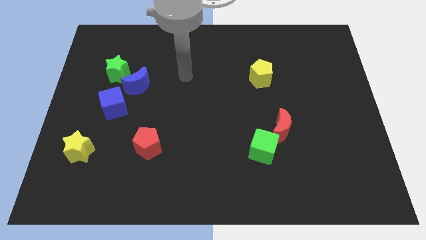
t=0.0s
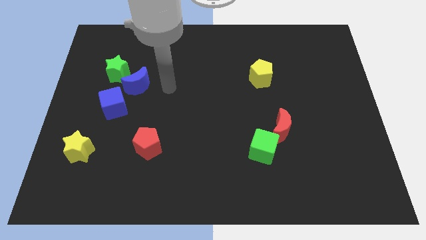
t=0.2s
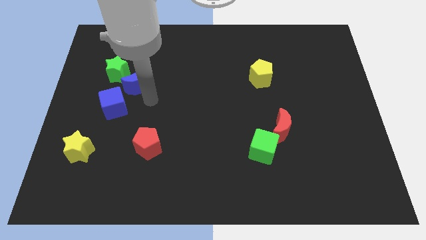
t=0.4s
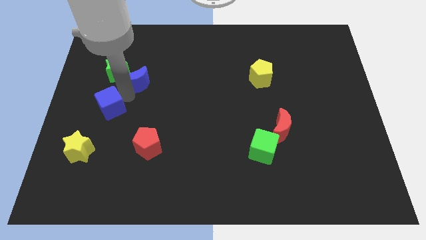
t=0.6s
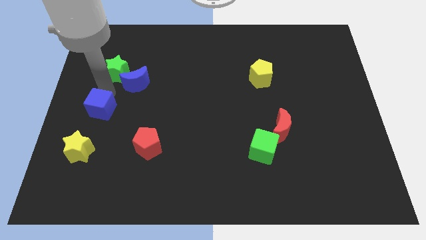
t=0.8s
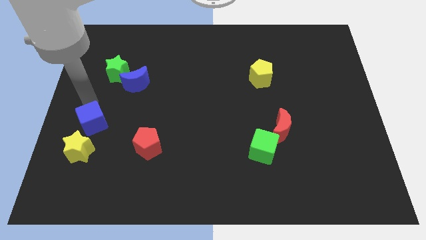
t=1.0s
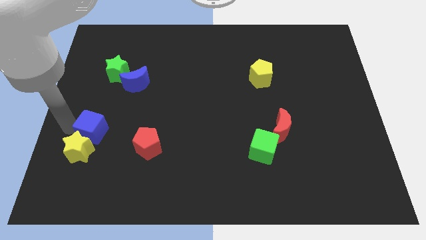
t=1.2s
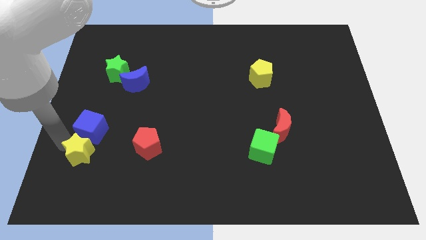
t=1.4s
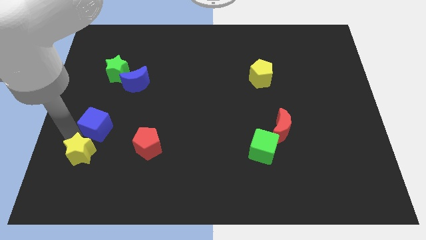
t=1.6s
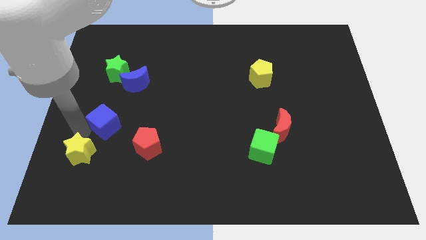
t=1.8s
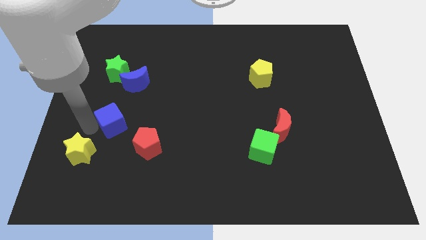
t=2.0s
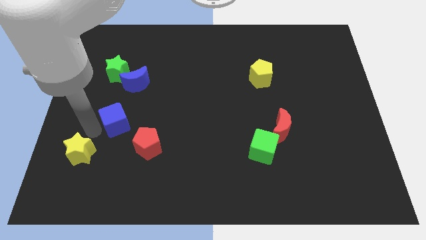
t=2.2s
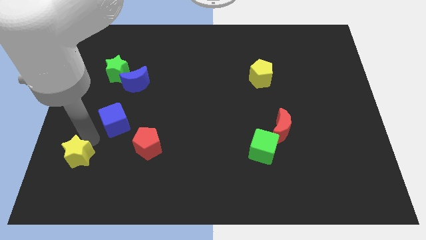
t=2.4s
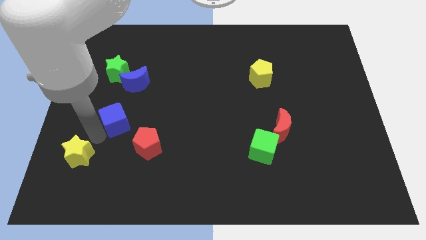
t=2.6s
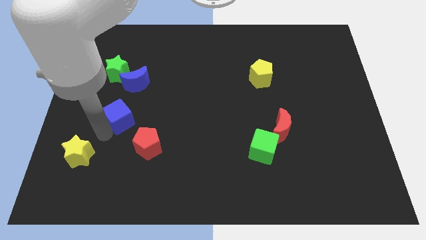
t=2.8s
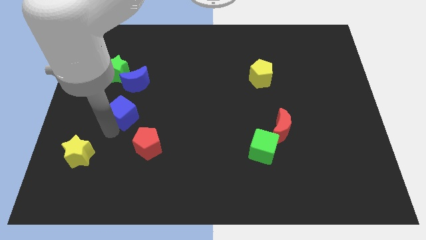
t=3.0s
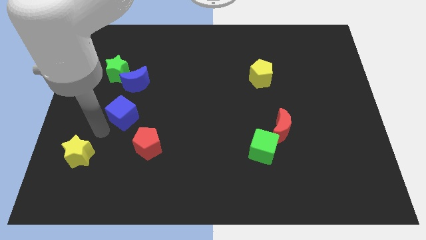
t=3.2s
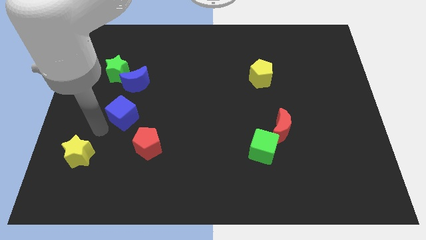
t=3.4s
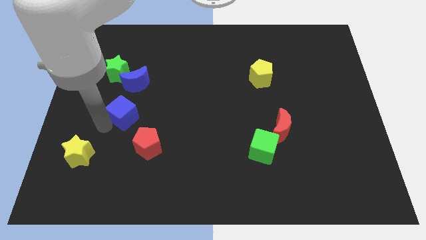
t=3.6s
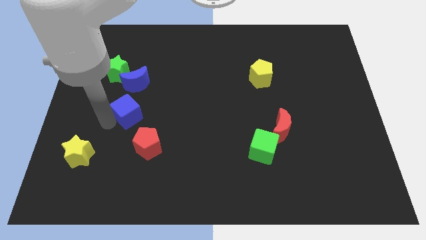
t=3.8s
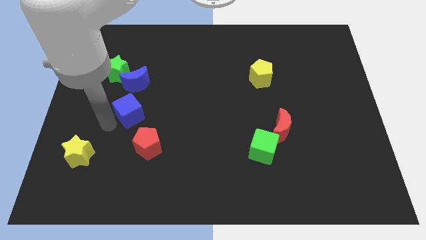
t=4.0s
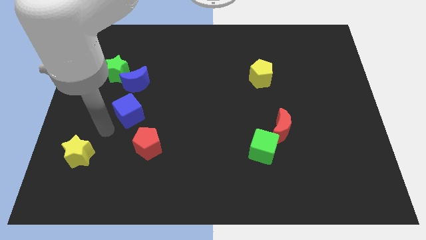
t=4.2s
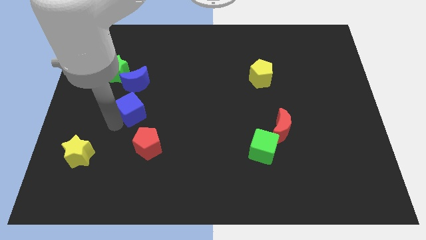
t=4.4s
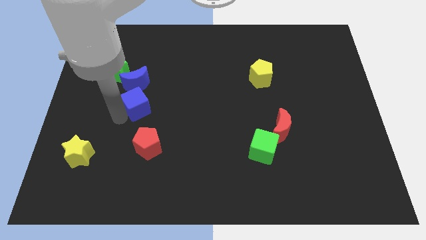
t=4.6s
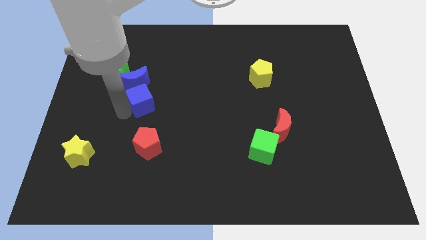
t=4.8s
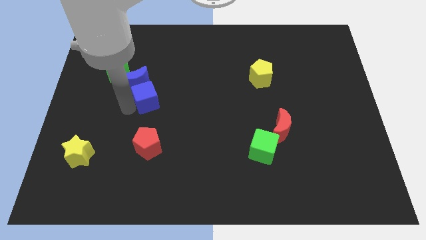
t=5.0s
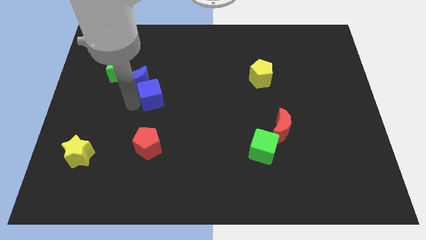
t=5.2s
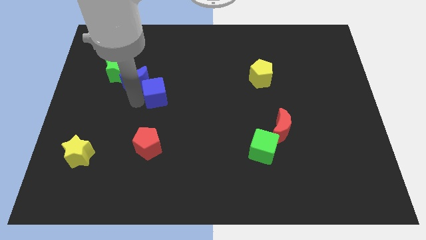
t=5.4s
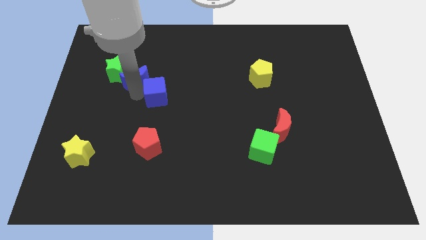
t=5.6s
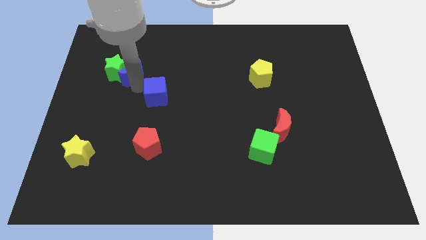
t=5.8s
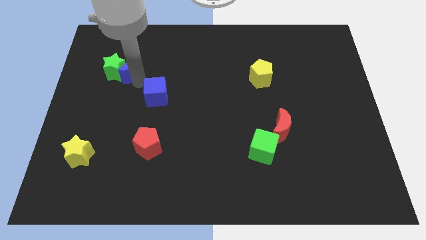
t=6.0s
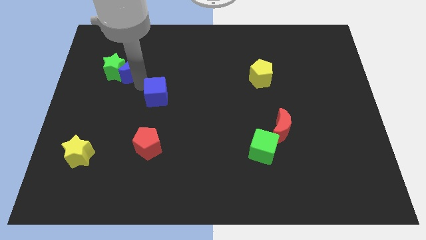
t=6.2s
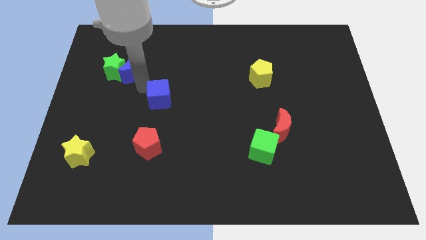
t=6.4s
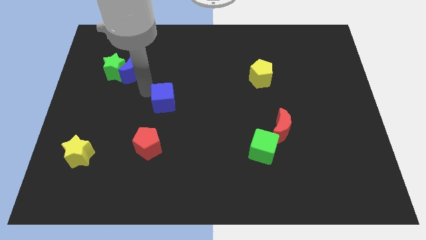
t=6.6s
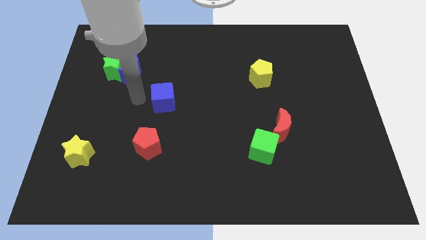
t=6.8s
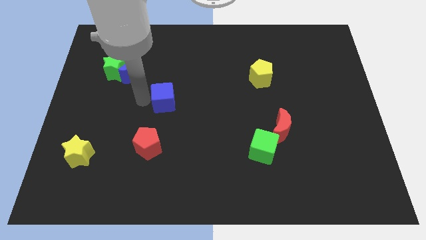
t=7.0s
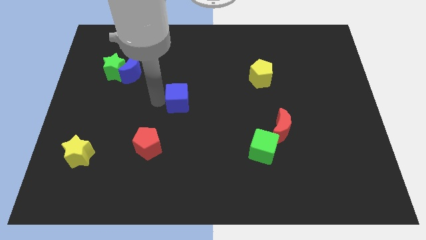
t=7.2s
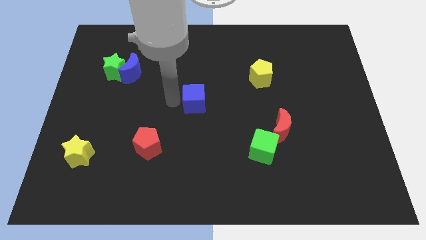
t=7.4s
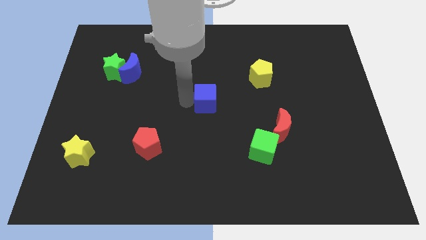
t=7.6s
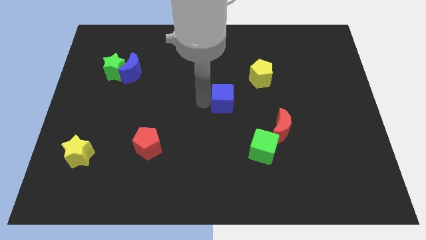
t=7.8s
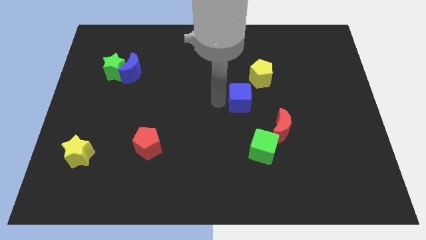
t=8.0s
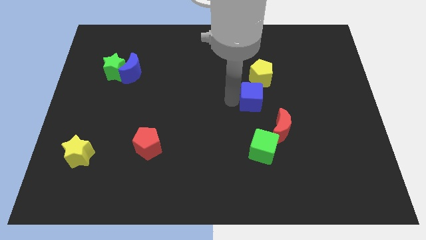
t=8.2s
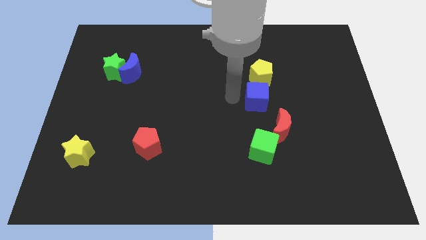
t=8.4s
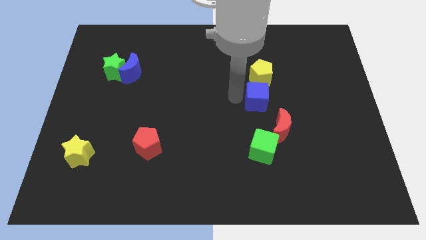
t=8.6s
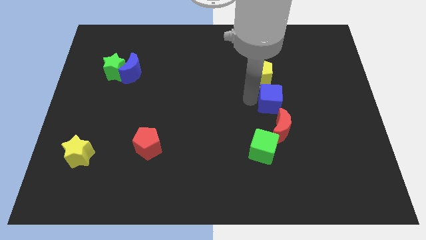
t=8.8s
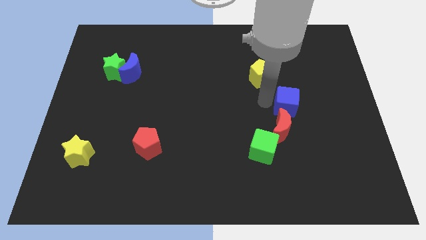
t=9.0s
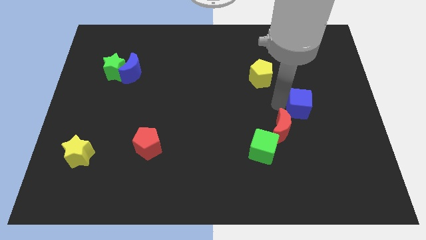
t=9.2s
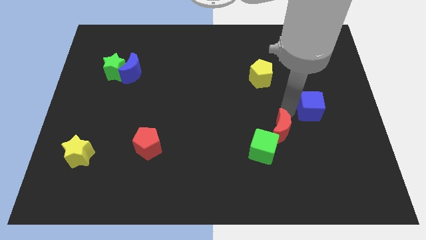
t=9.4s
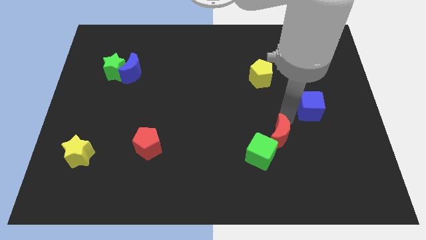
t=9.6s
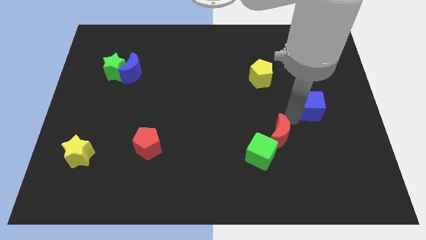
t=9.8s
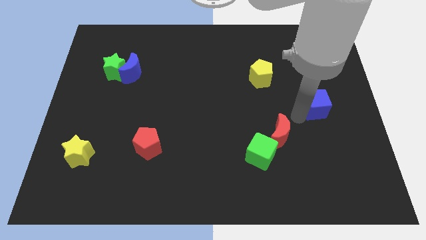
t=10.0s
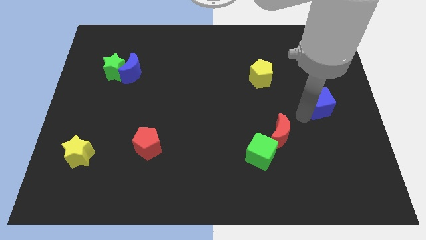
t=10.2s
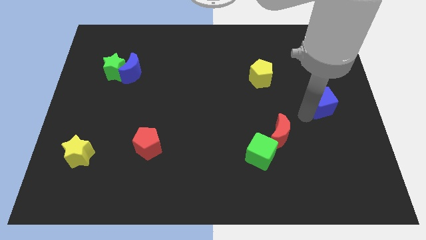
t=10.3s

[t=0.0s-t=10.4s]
push the blue cube to the right side of the board

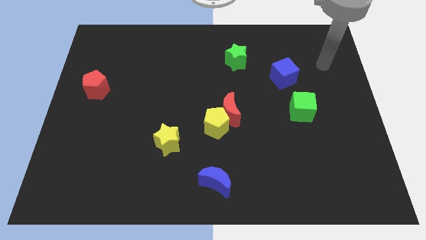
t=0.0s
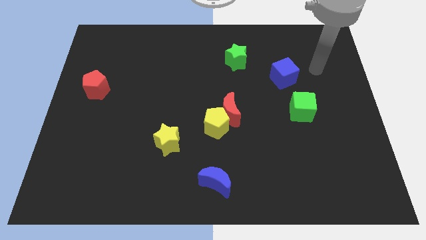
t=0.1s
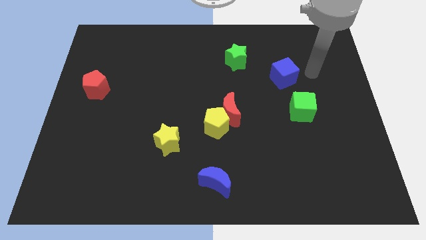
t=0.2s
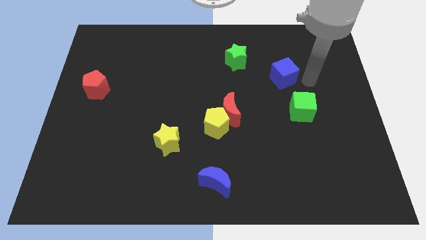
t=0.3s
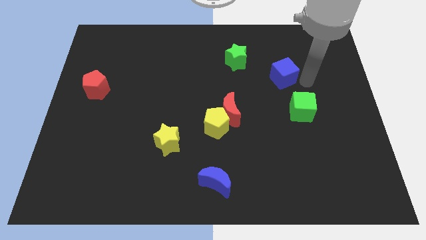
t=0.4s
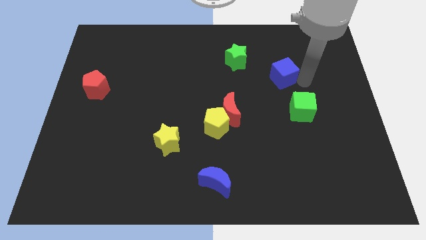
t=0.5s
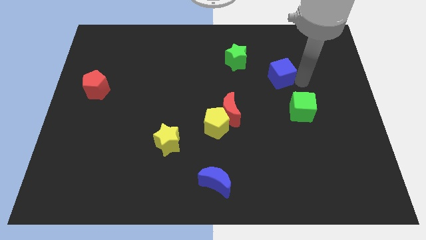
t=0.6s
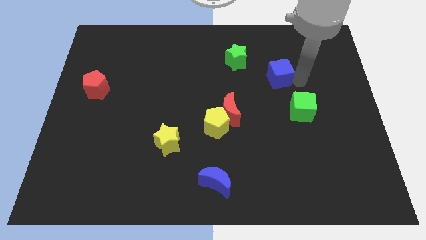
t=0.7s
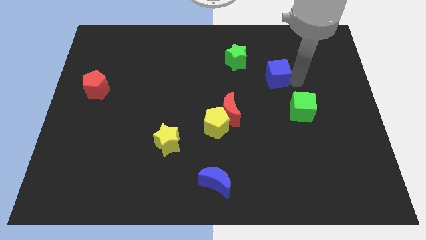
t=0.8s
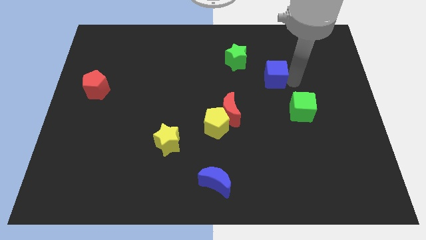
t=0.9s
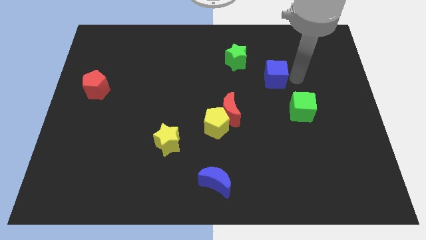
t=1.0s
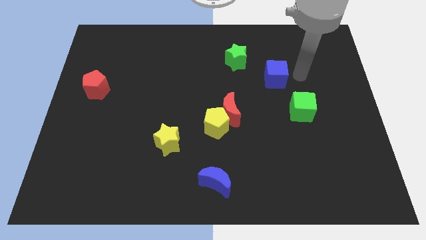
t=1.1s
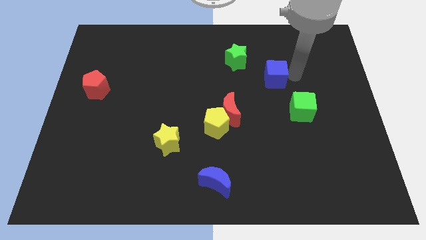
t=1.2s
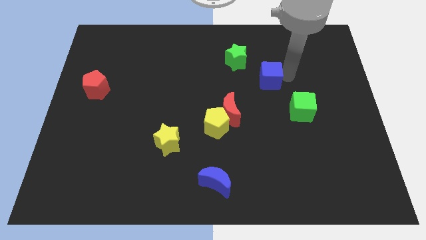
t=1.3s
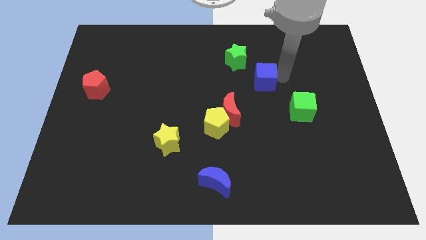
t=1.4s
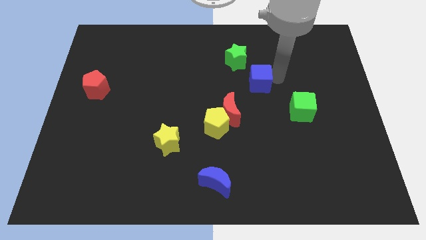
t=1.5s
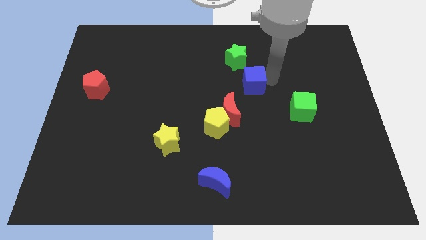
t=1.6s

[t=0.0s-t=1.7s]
put the blue cube to the middle
